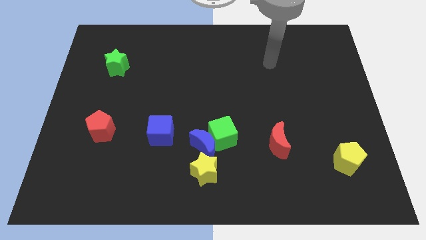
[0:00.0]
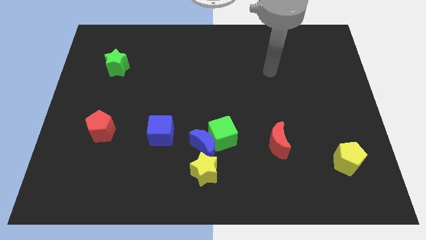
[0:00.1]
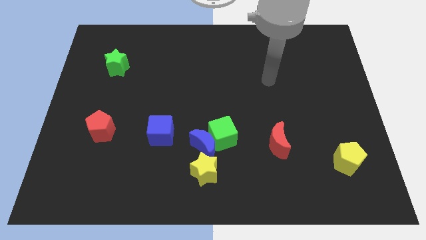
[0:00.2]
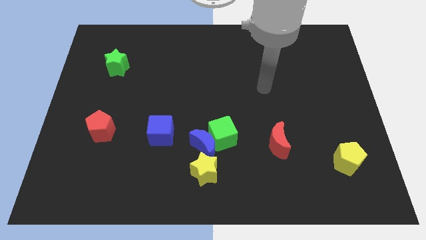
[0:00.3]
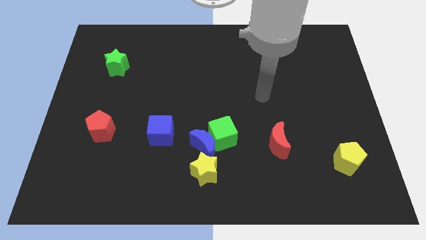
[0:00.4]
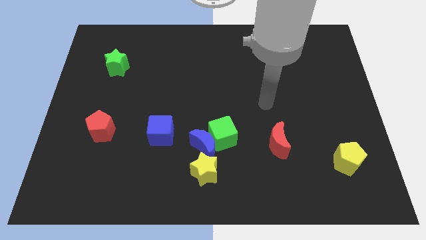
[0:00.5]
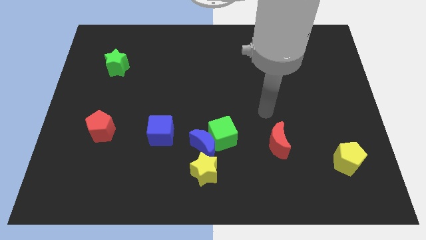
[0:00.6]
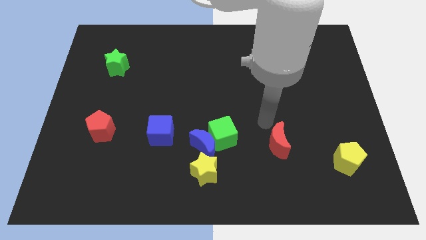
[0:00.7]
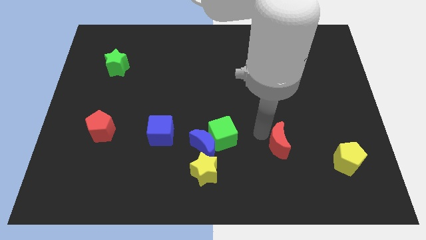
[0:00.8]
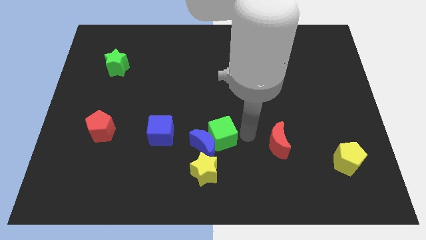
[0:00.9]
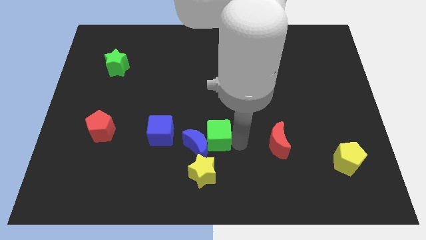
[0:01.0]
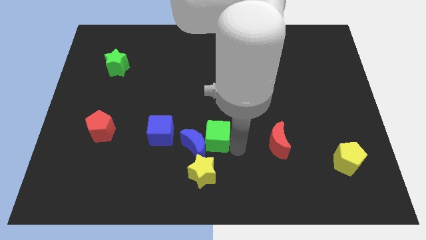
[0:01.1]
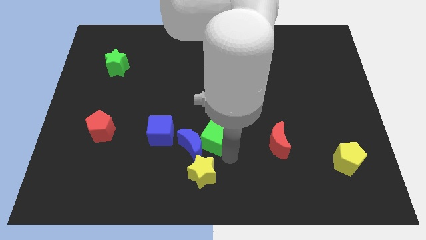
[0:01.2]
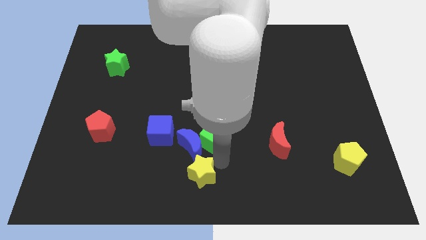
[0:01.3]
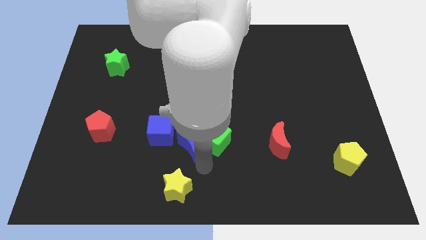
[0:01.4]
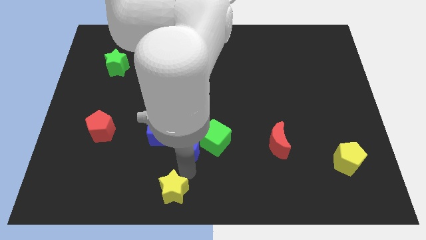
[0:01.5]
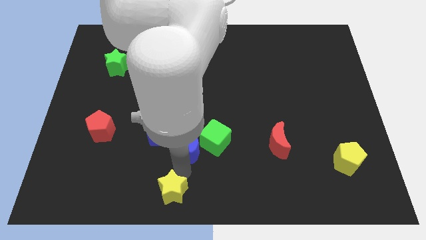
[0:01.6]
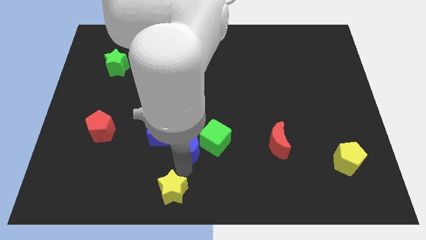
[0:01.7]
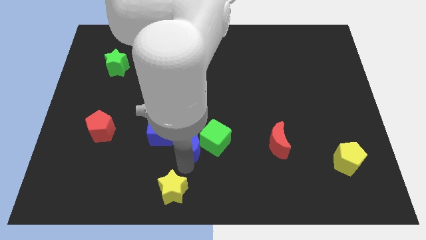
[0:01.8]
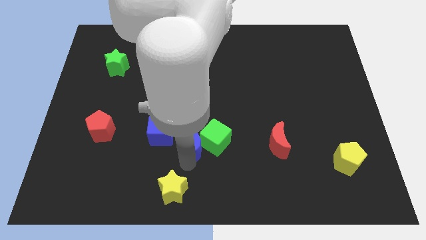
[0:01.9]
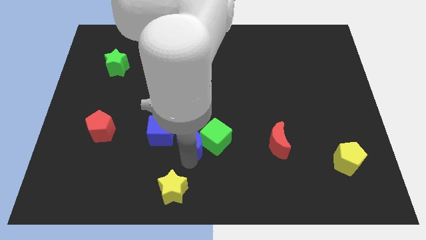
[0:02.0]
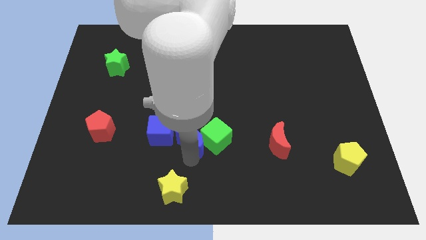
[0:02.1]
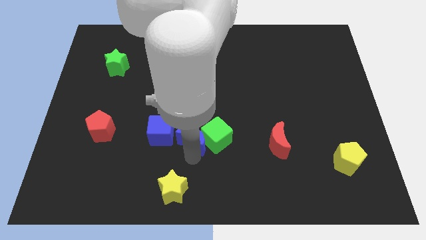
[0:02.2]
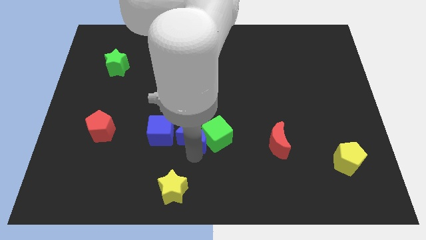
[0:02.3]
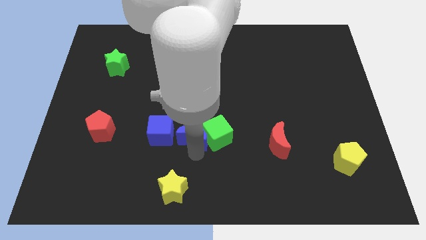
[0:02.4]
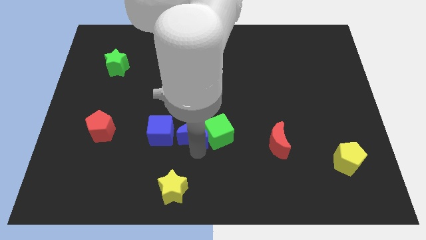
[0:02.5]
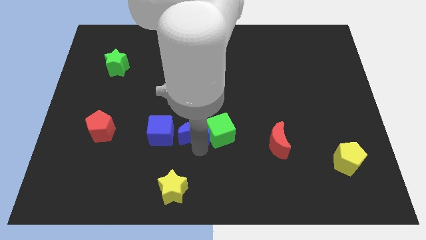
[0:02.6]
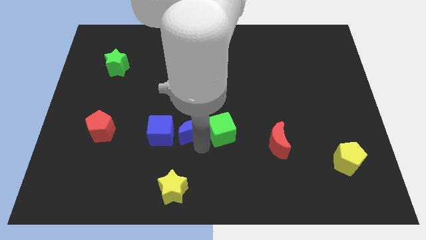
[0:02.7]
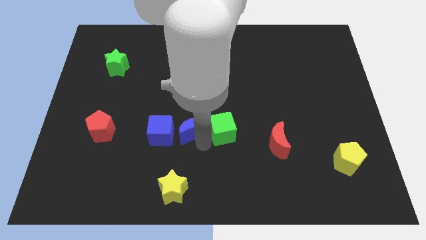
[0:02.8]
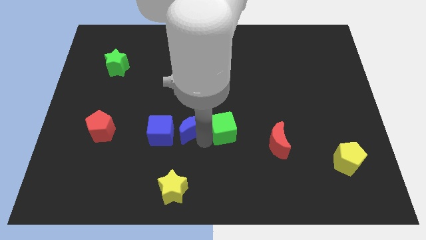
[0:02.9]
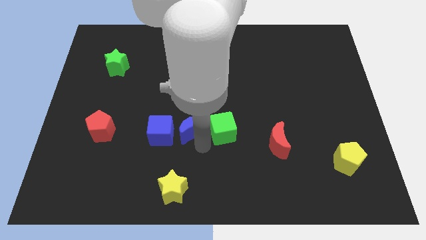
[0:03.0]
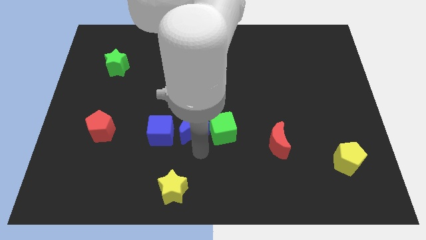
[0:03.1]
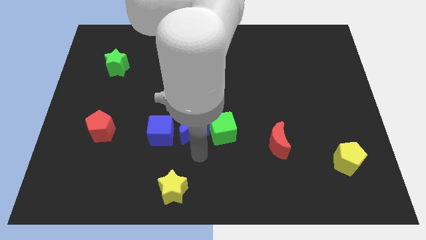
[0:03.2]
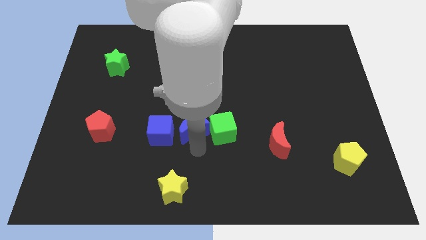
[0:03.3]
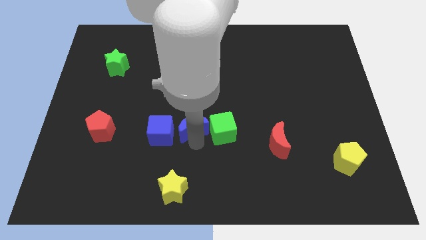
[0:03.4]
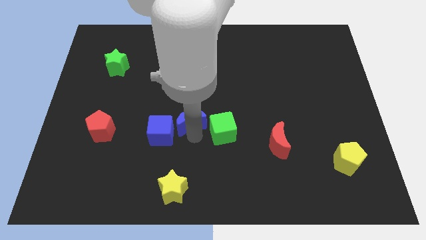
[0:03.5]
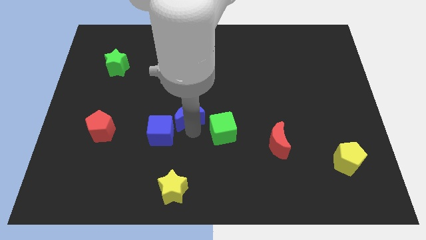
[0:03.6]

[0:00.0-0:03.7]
pull the blue moon apart from the green cube and yellow star

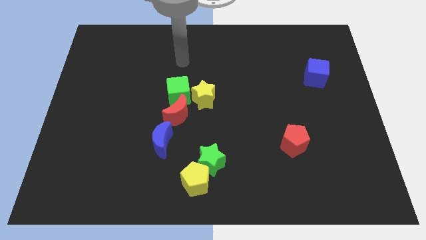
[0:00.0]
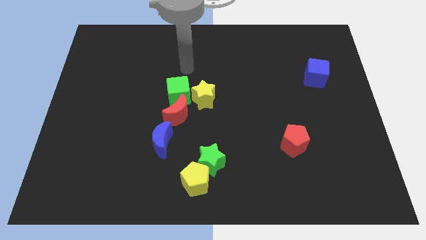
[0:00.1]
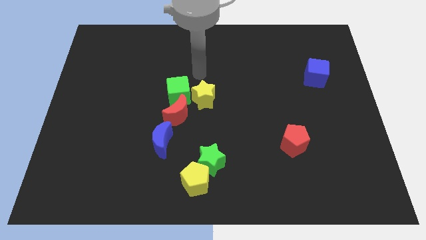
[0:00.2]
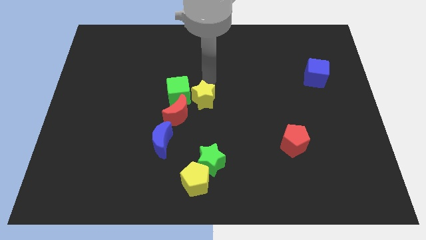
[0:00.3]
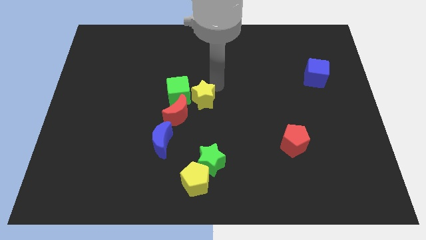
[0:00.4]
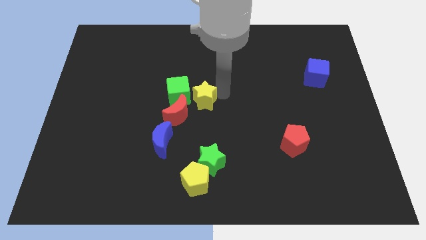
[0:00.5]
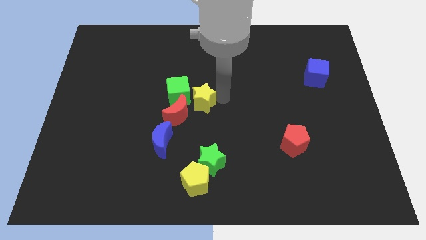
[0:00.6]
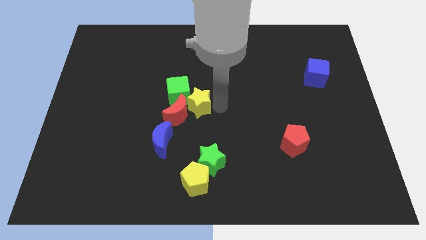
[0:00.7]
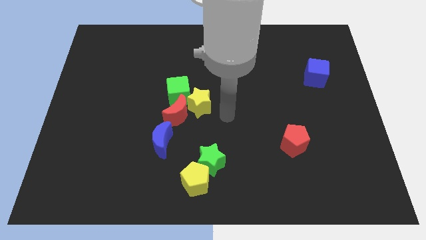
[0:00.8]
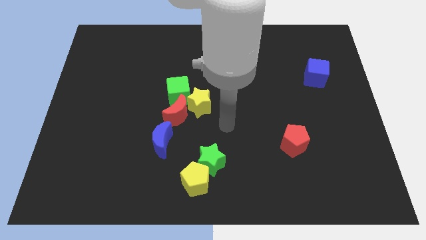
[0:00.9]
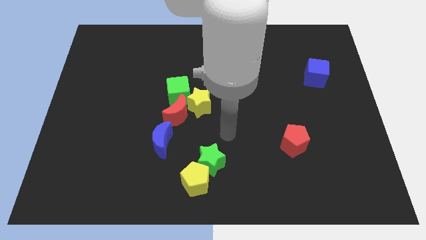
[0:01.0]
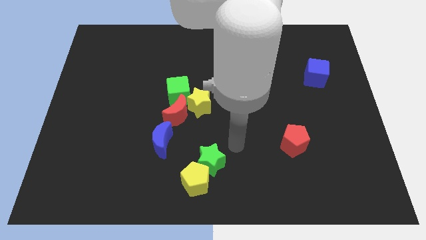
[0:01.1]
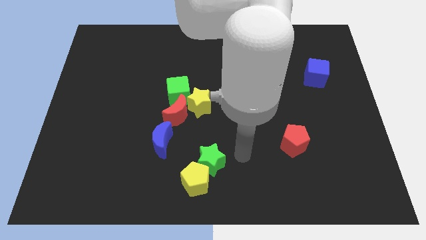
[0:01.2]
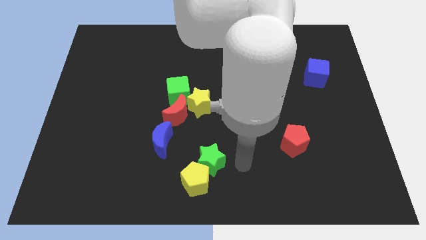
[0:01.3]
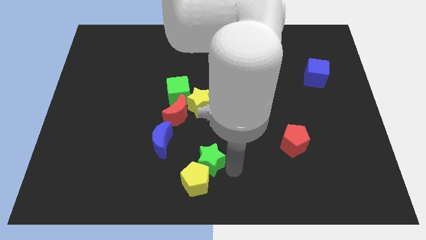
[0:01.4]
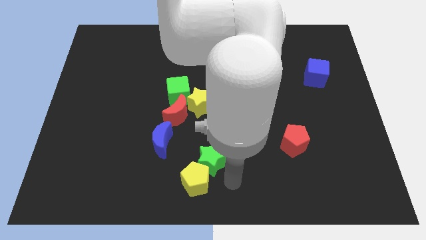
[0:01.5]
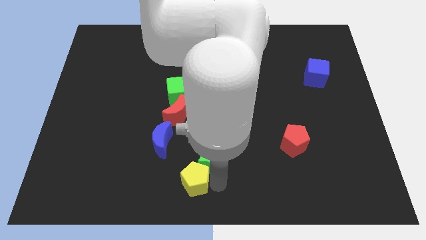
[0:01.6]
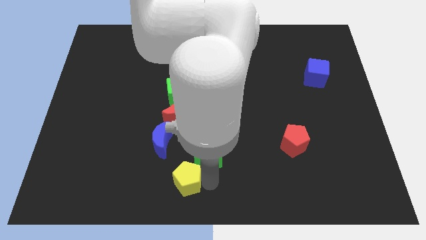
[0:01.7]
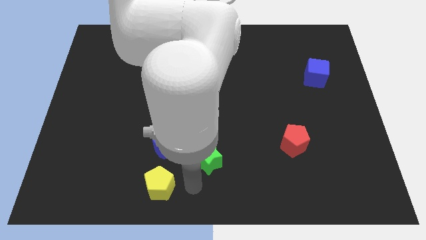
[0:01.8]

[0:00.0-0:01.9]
move the green star away from the yellow pentagon

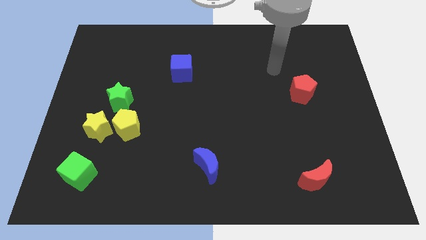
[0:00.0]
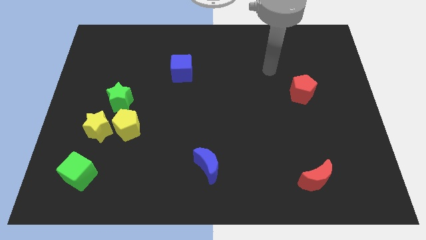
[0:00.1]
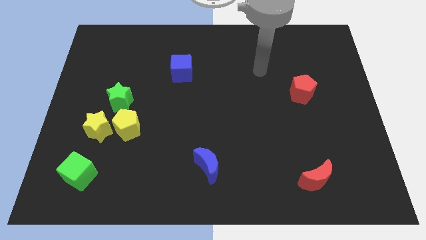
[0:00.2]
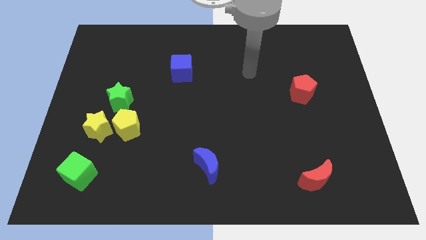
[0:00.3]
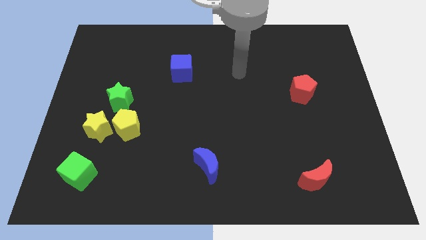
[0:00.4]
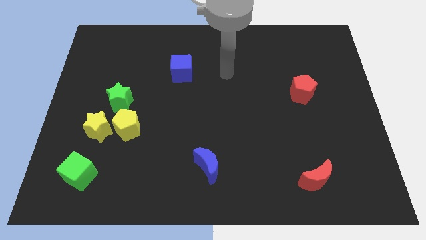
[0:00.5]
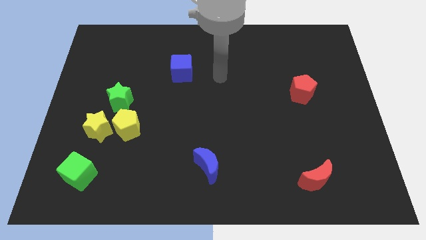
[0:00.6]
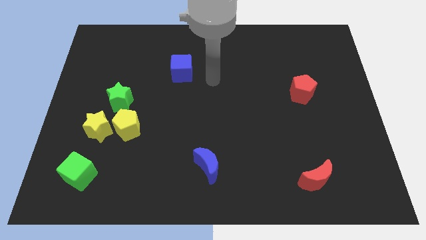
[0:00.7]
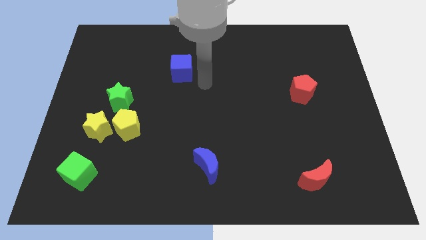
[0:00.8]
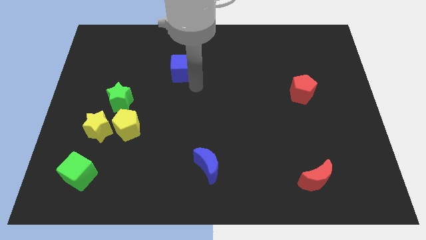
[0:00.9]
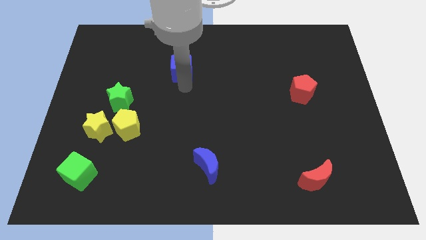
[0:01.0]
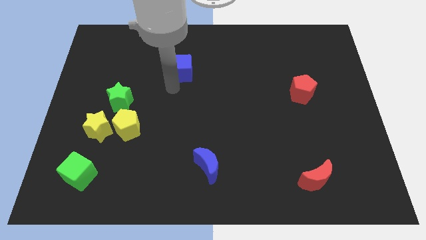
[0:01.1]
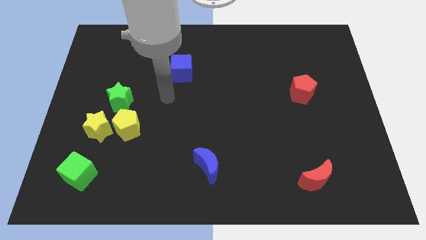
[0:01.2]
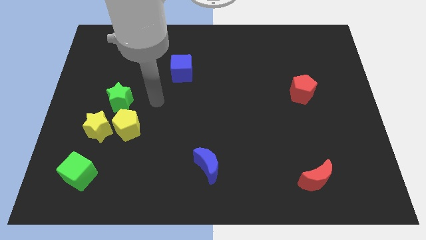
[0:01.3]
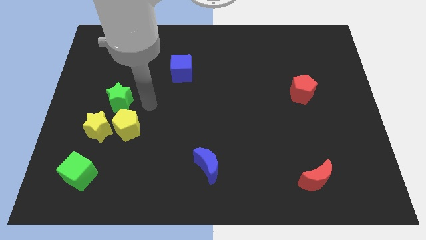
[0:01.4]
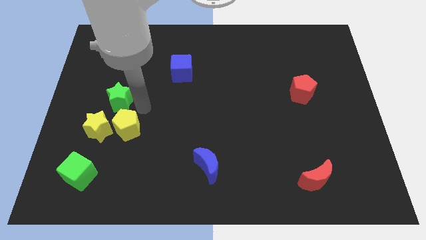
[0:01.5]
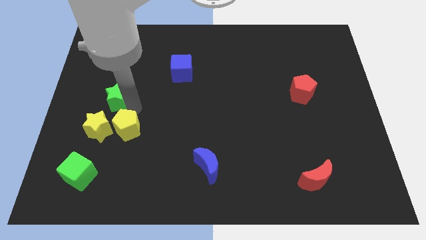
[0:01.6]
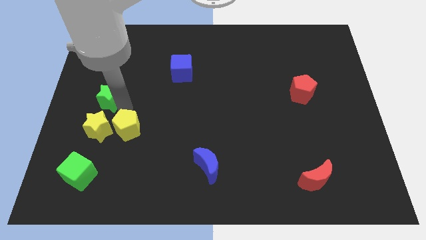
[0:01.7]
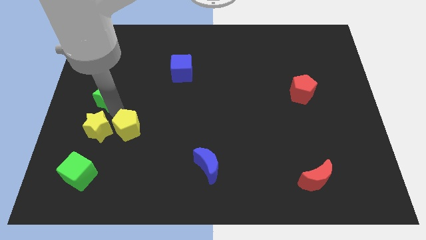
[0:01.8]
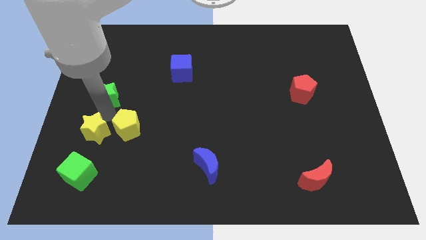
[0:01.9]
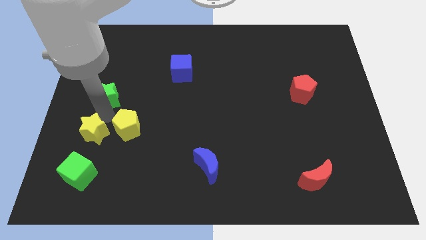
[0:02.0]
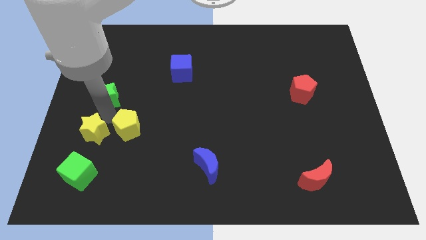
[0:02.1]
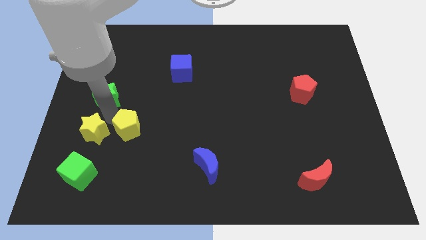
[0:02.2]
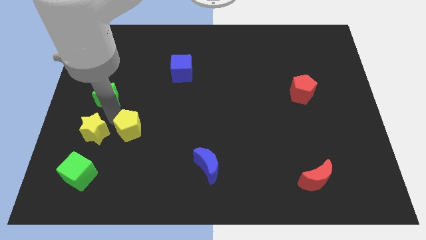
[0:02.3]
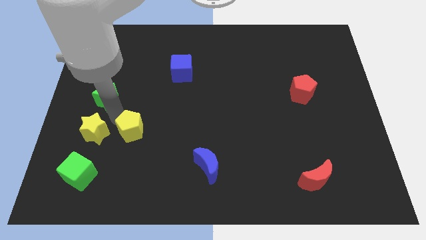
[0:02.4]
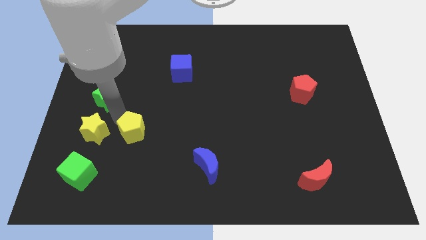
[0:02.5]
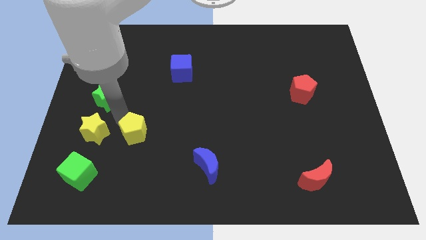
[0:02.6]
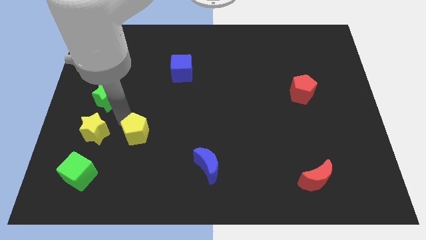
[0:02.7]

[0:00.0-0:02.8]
move the yellow pentagon away from the yellow star and green star

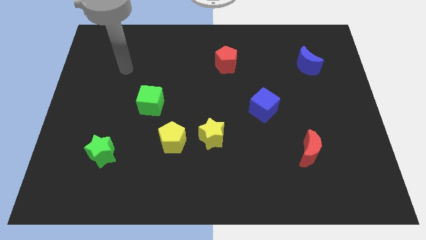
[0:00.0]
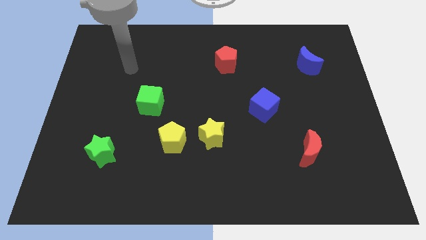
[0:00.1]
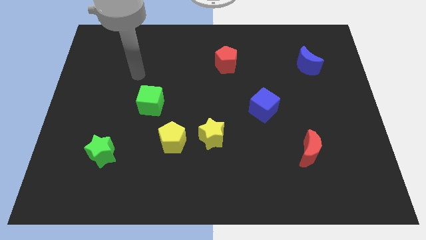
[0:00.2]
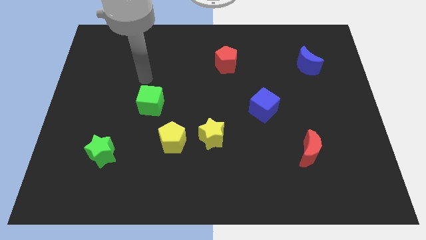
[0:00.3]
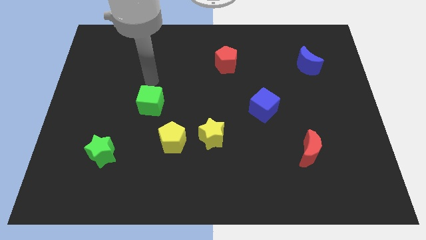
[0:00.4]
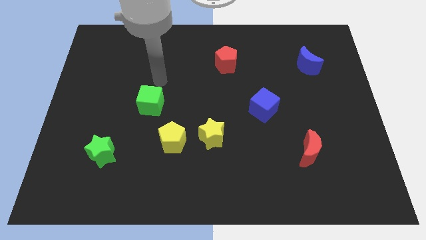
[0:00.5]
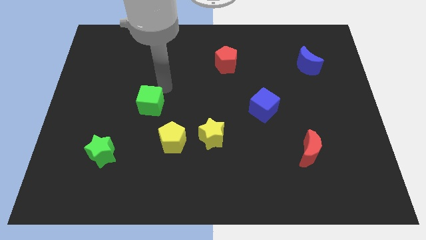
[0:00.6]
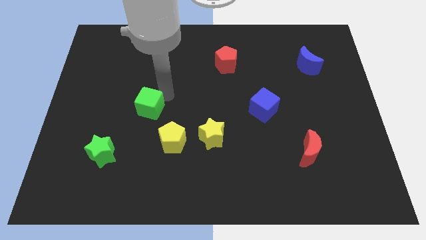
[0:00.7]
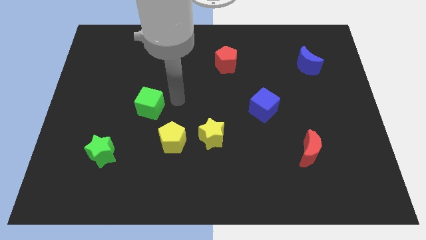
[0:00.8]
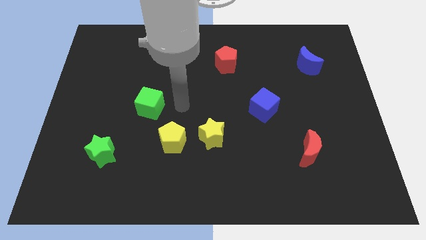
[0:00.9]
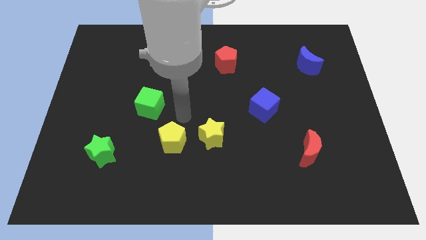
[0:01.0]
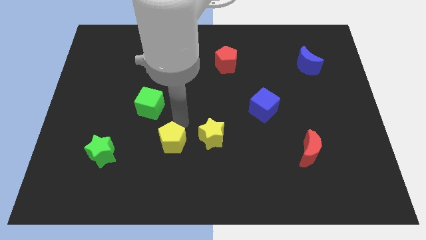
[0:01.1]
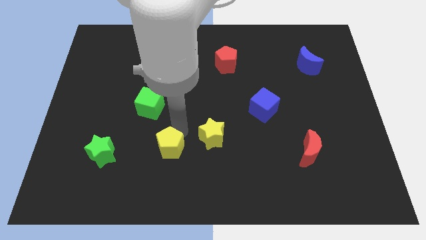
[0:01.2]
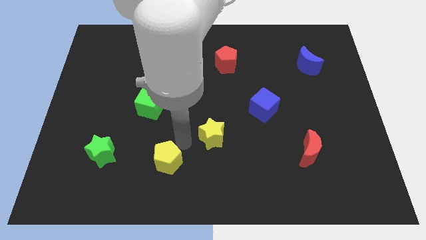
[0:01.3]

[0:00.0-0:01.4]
pull the yellow star apart from the yellow pentagon
